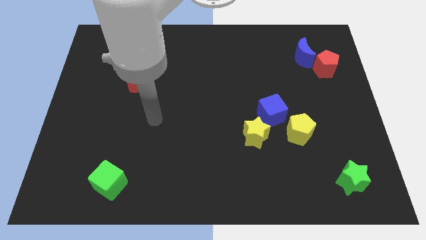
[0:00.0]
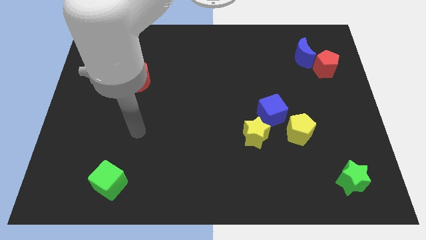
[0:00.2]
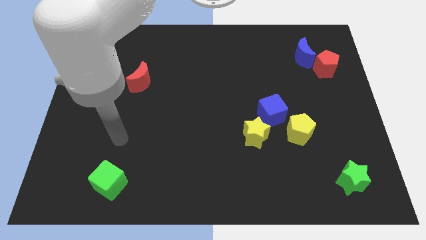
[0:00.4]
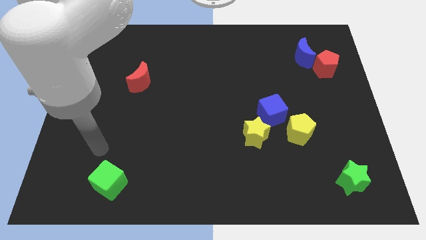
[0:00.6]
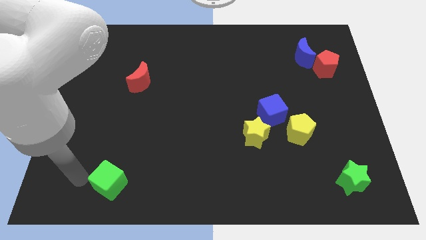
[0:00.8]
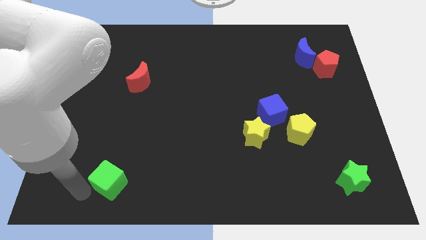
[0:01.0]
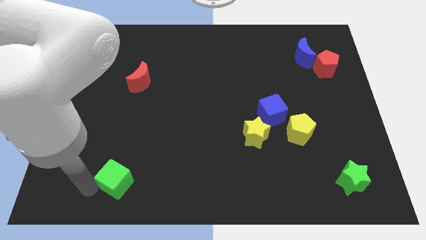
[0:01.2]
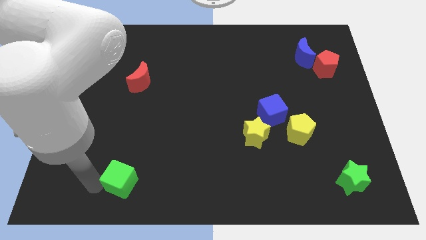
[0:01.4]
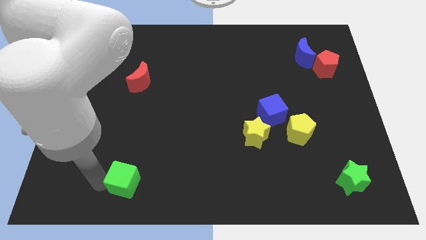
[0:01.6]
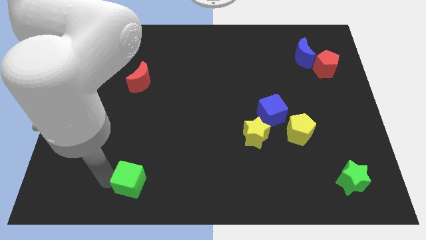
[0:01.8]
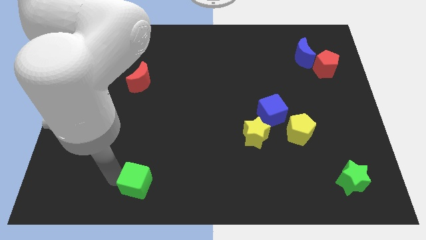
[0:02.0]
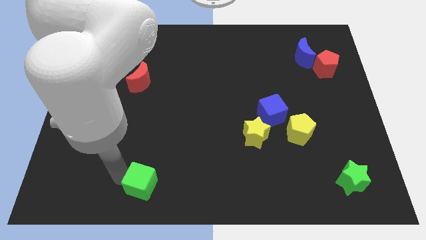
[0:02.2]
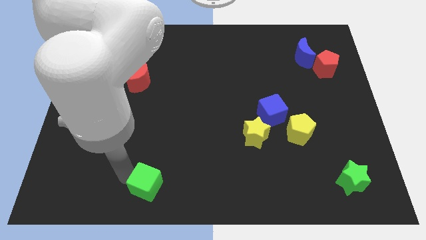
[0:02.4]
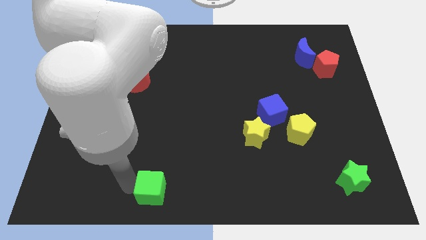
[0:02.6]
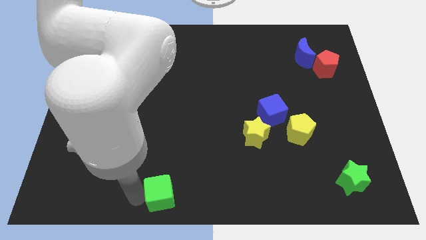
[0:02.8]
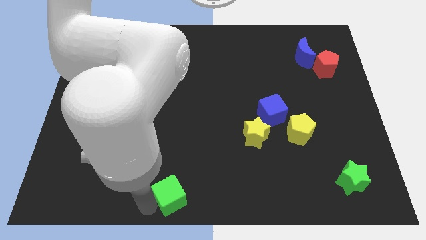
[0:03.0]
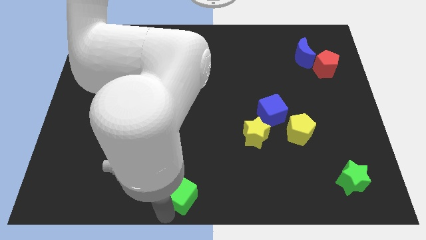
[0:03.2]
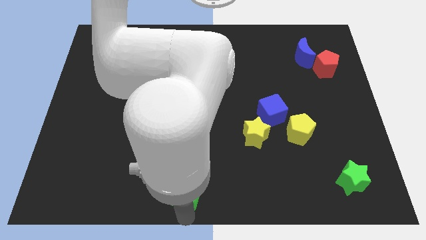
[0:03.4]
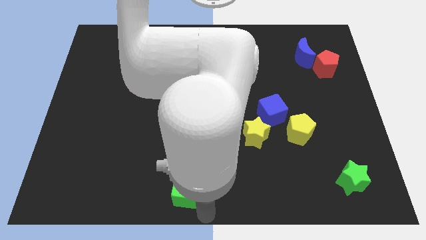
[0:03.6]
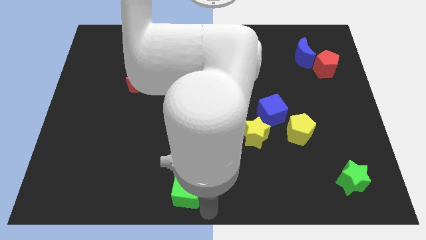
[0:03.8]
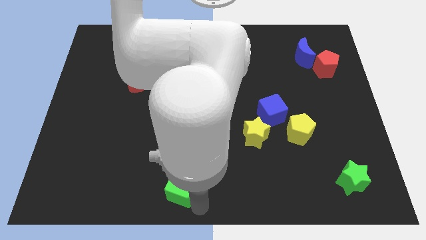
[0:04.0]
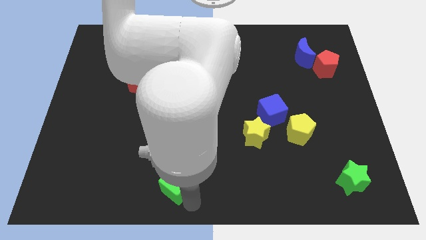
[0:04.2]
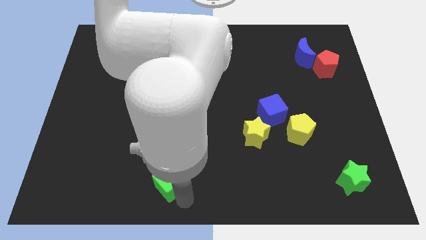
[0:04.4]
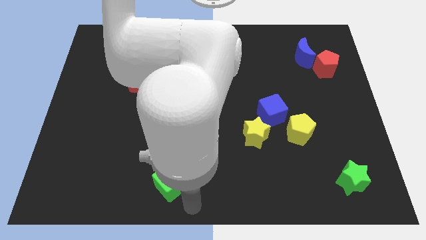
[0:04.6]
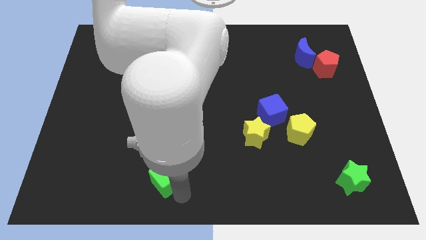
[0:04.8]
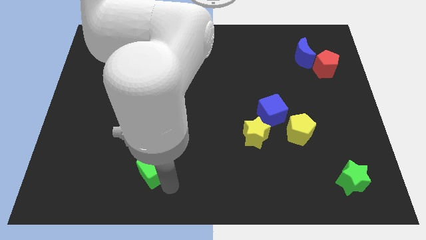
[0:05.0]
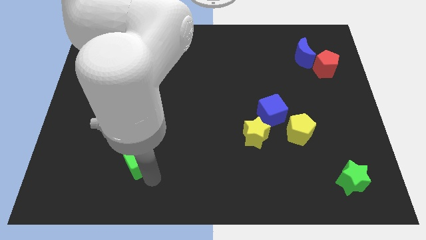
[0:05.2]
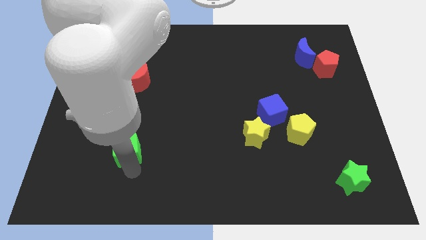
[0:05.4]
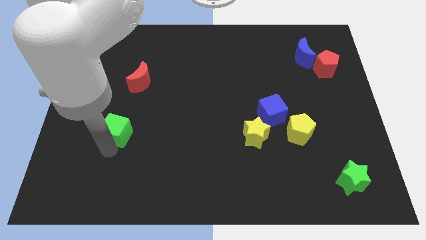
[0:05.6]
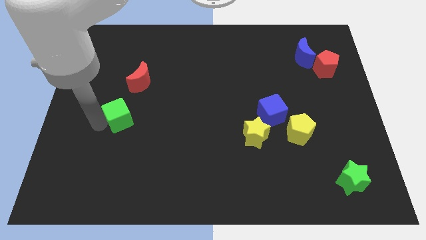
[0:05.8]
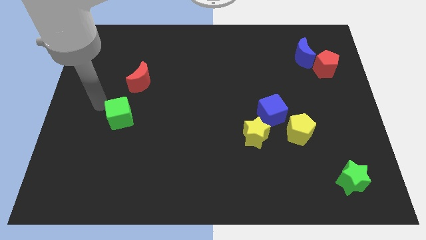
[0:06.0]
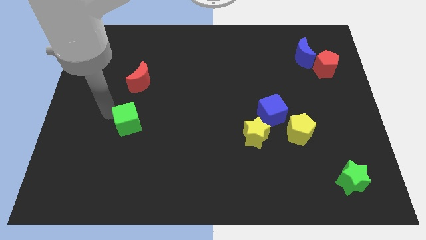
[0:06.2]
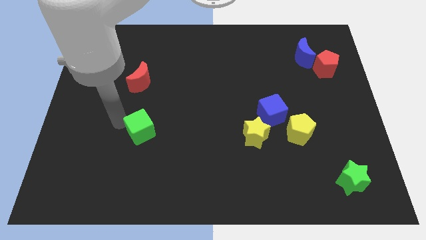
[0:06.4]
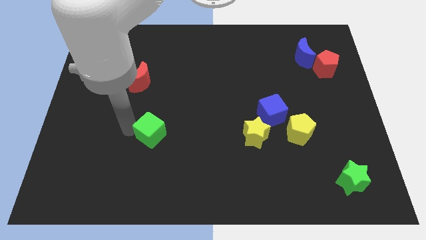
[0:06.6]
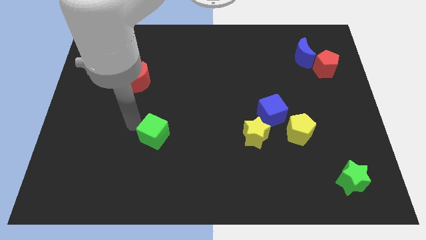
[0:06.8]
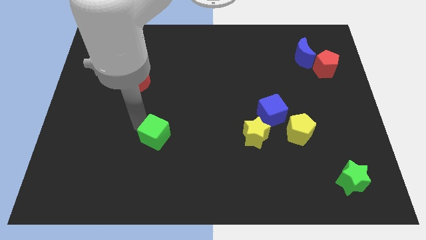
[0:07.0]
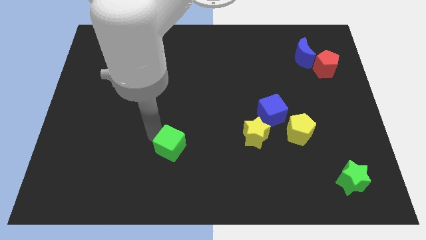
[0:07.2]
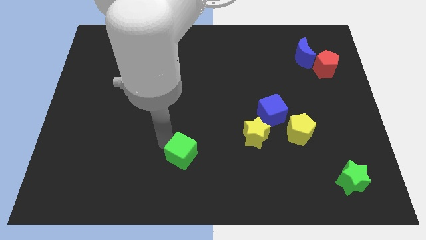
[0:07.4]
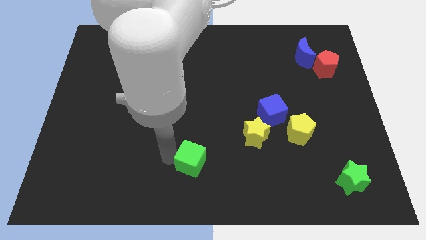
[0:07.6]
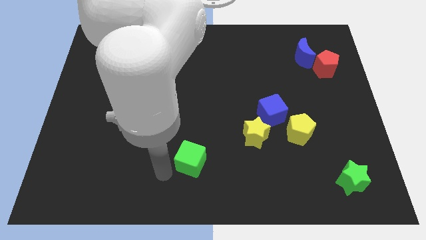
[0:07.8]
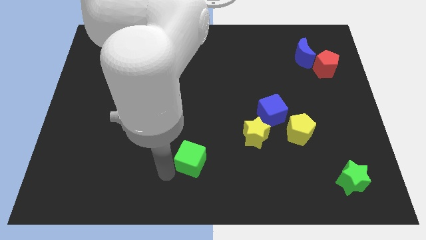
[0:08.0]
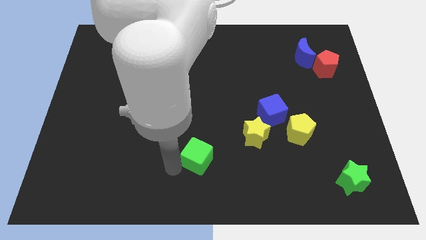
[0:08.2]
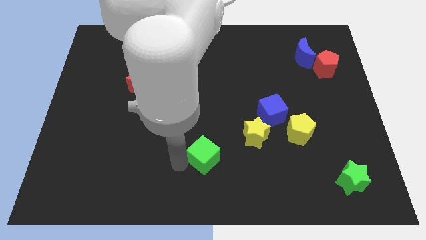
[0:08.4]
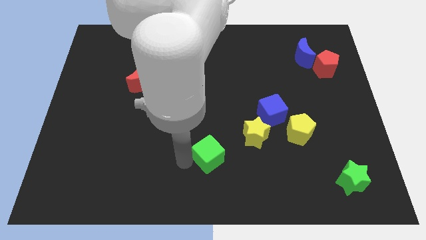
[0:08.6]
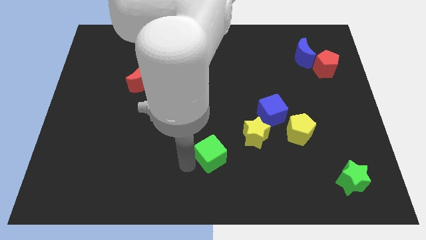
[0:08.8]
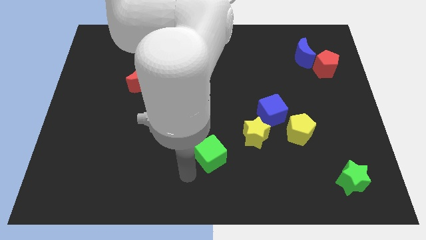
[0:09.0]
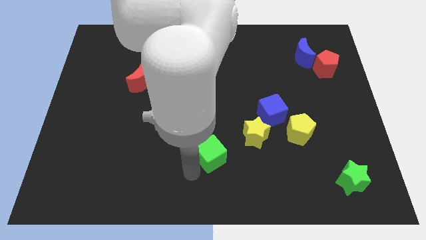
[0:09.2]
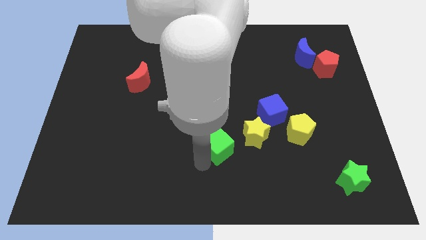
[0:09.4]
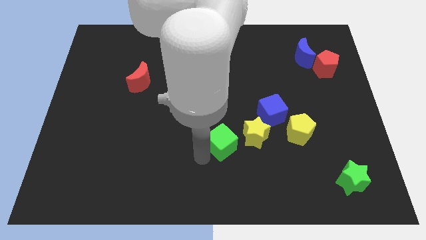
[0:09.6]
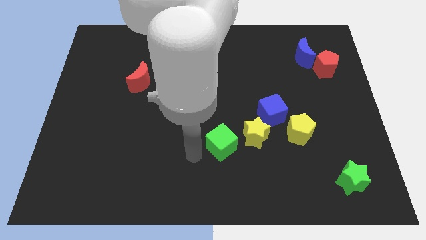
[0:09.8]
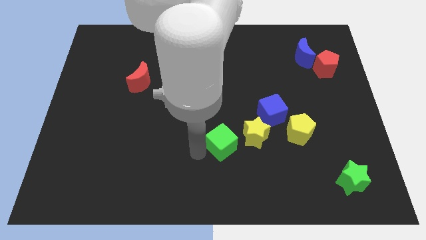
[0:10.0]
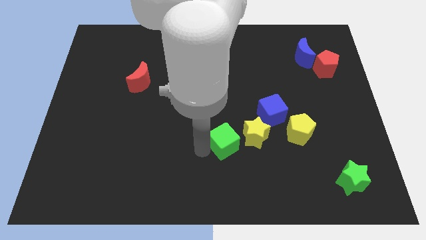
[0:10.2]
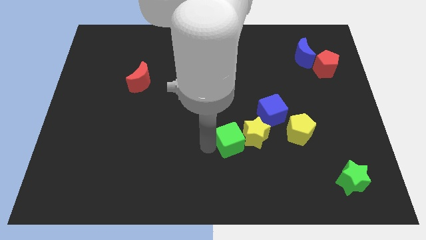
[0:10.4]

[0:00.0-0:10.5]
move the green cube next to the yellow star

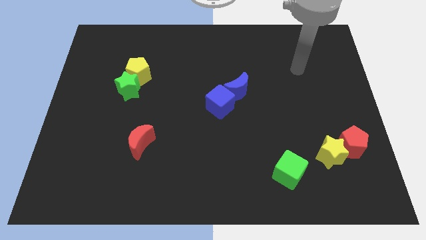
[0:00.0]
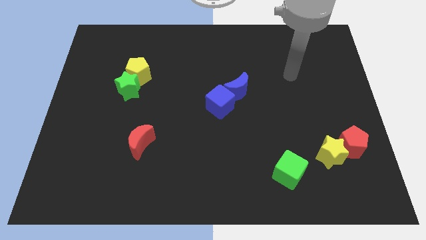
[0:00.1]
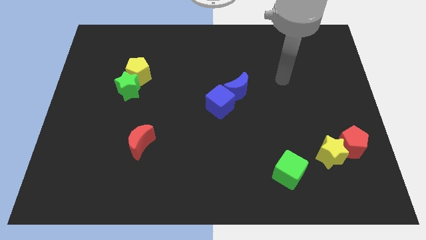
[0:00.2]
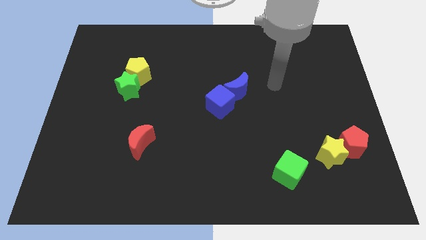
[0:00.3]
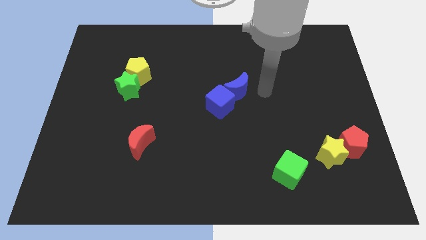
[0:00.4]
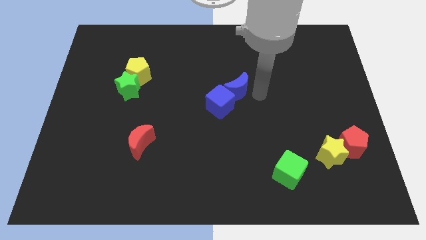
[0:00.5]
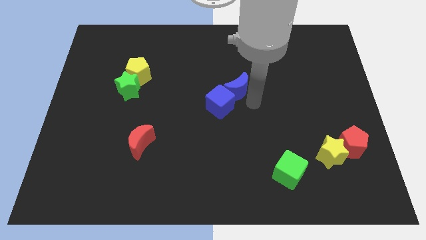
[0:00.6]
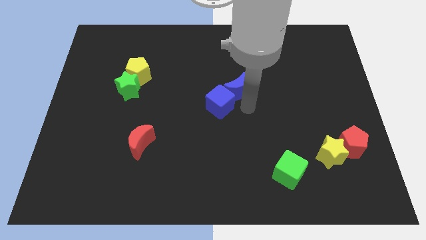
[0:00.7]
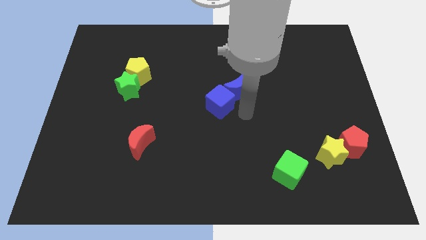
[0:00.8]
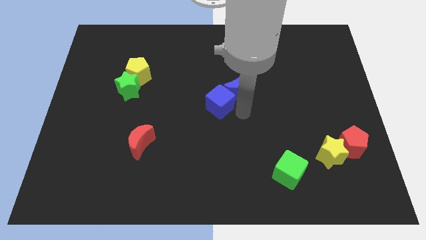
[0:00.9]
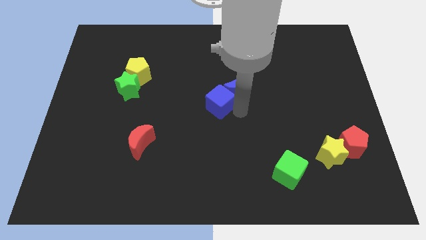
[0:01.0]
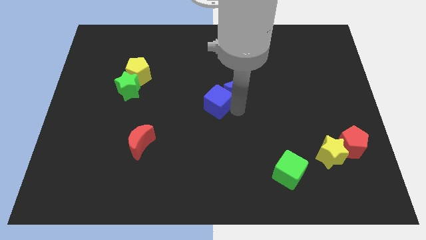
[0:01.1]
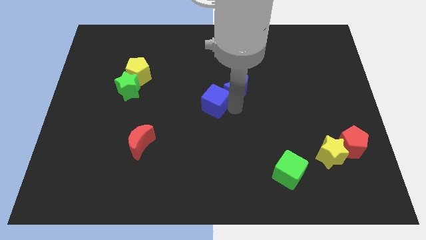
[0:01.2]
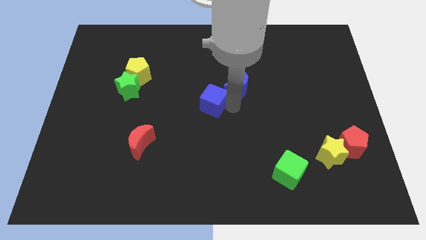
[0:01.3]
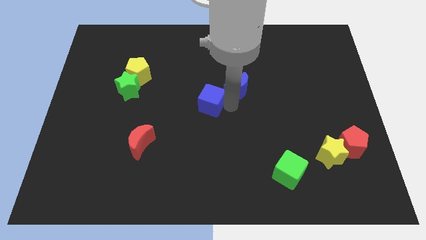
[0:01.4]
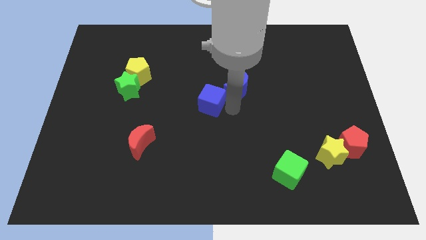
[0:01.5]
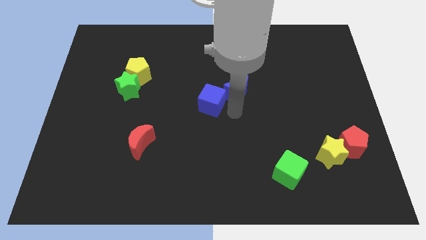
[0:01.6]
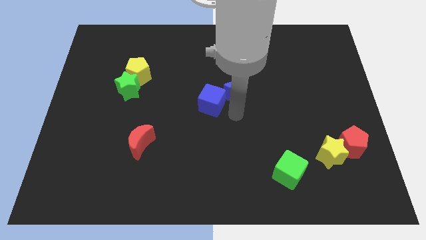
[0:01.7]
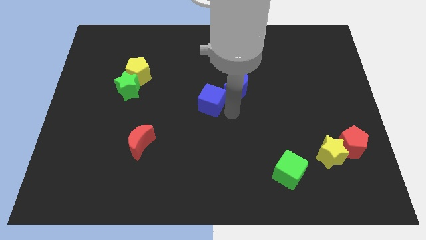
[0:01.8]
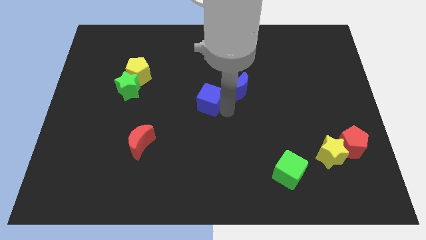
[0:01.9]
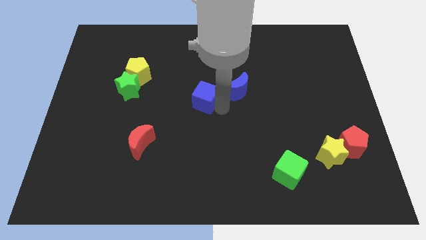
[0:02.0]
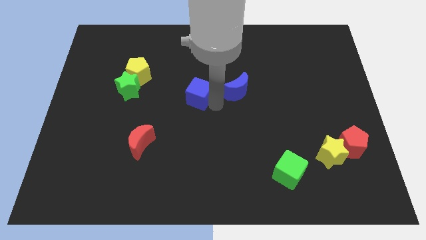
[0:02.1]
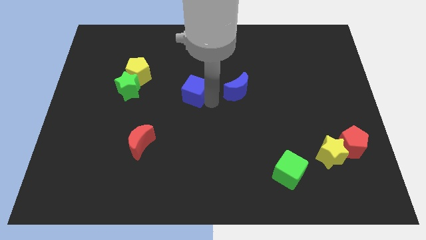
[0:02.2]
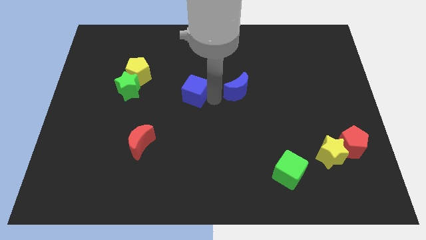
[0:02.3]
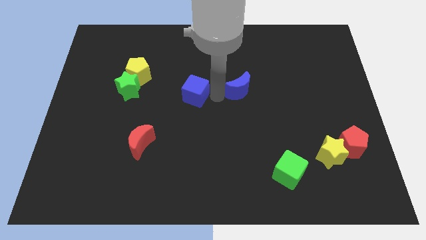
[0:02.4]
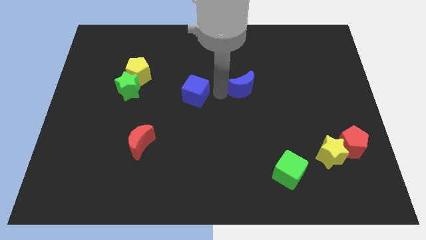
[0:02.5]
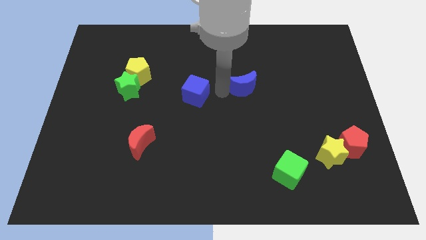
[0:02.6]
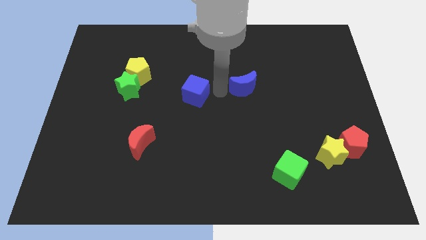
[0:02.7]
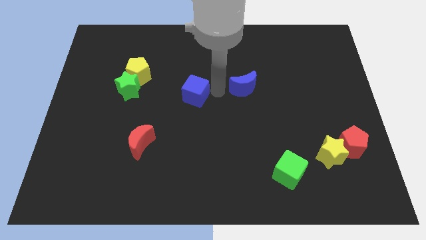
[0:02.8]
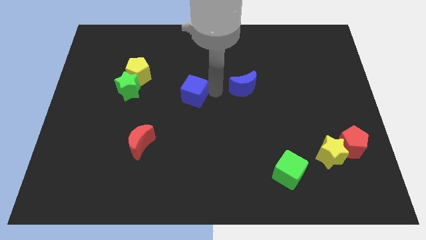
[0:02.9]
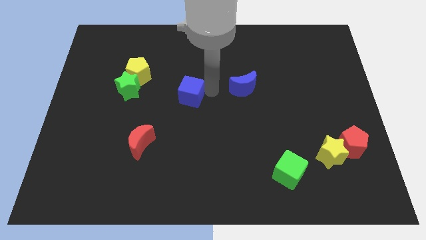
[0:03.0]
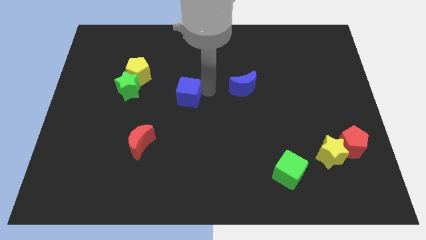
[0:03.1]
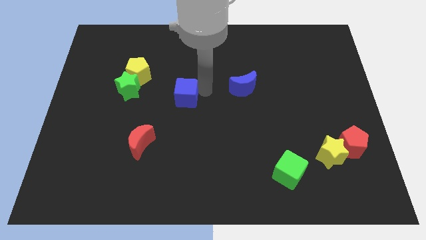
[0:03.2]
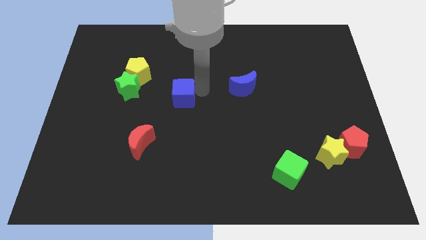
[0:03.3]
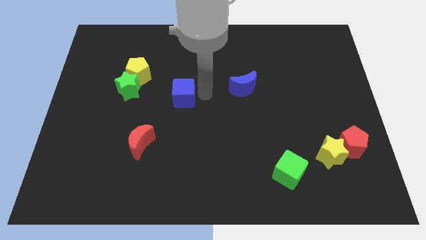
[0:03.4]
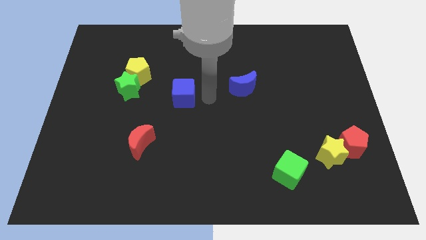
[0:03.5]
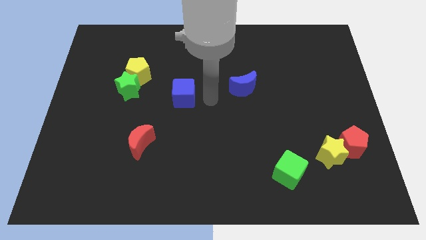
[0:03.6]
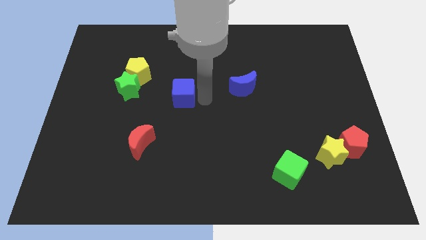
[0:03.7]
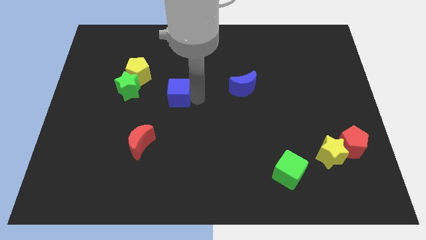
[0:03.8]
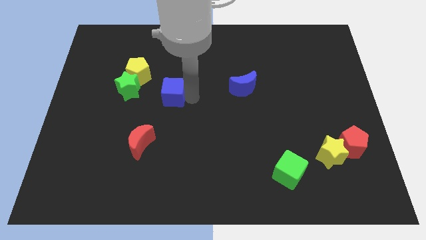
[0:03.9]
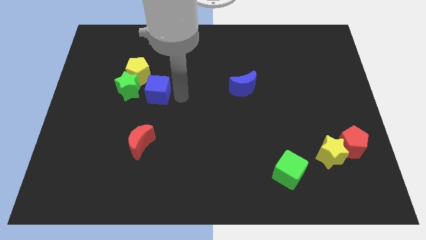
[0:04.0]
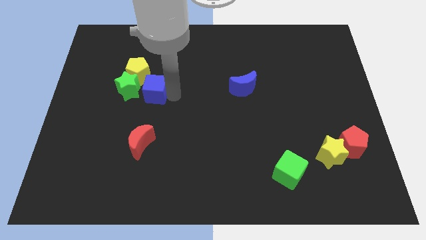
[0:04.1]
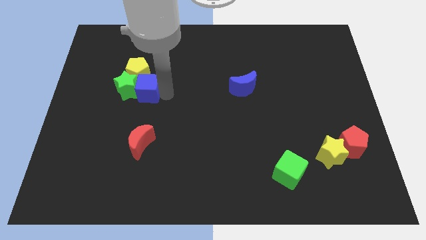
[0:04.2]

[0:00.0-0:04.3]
push the blue cube close to the green star
